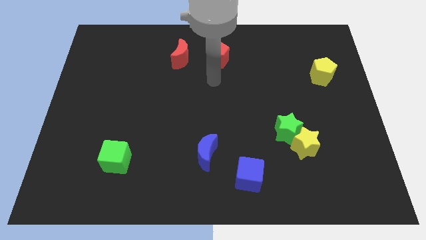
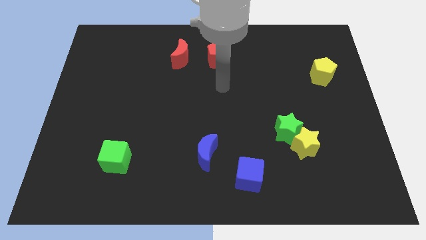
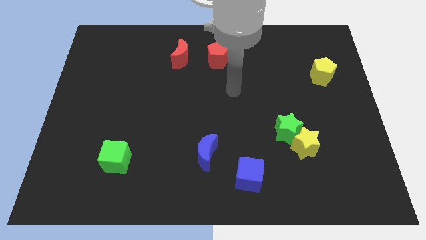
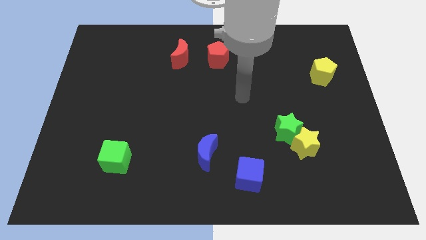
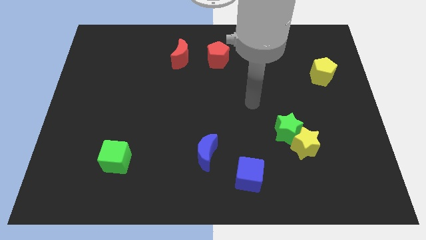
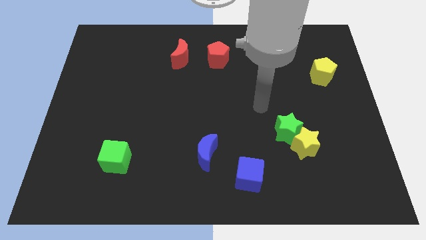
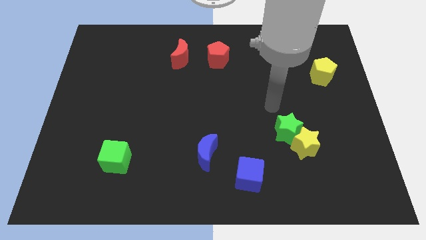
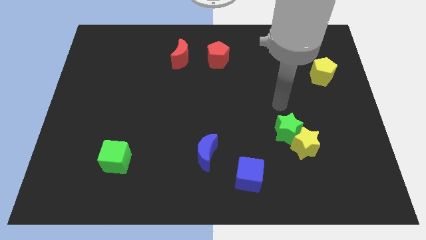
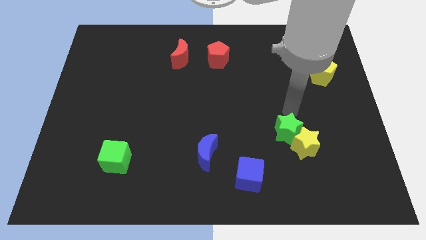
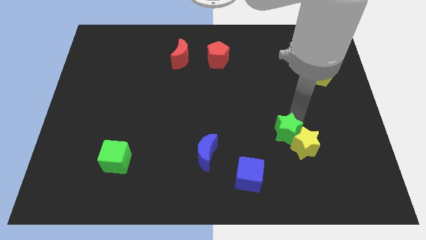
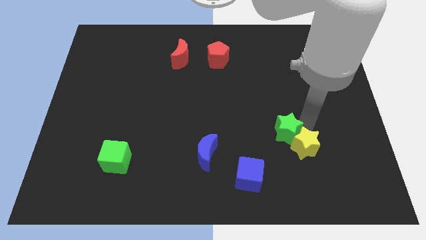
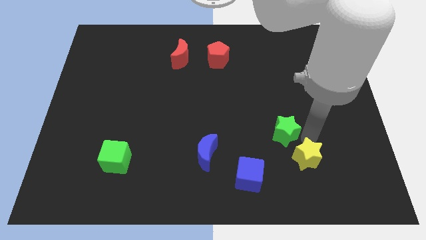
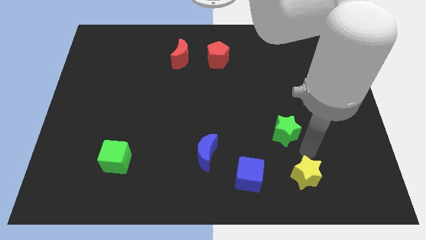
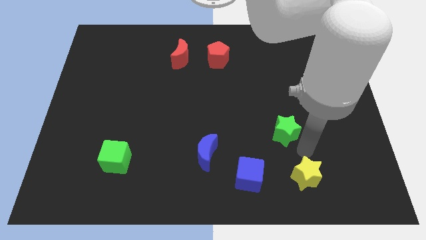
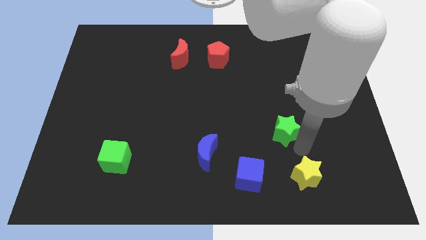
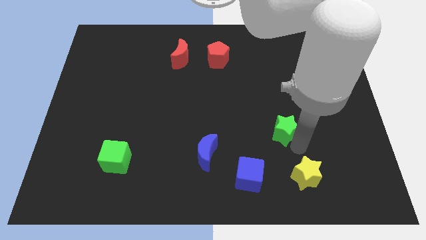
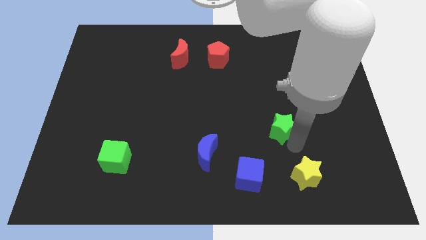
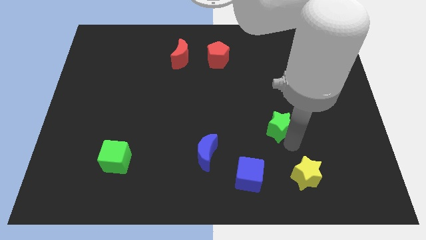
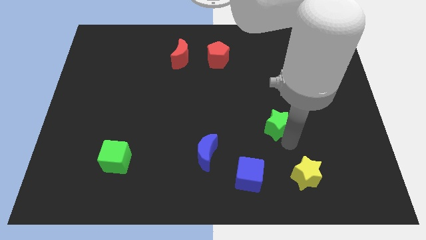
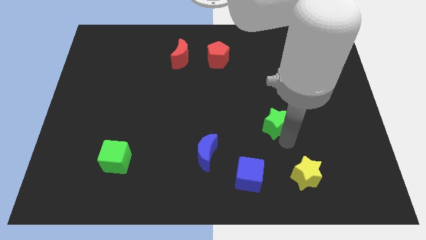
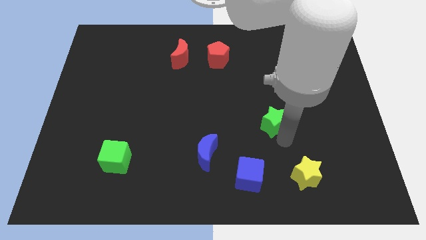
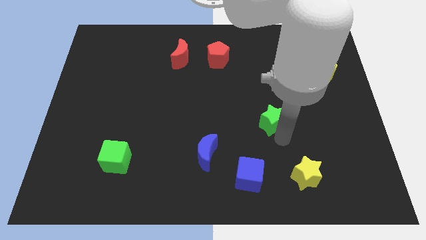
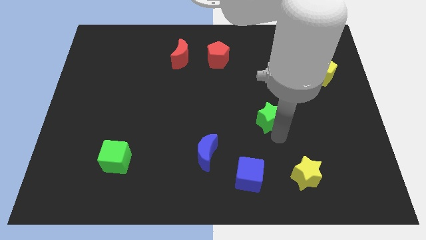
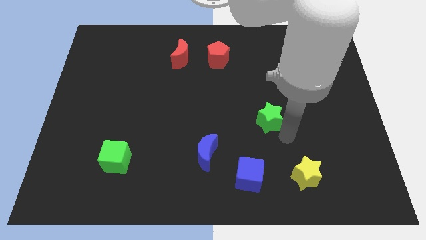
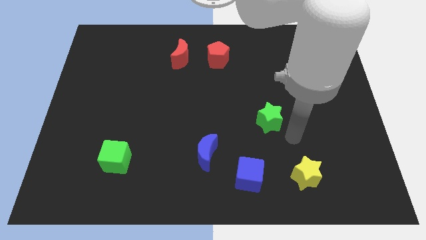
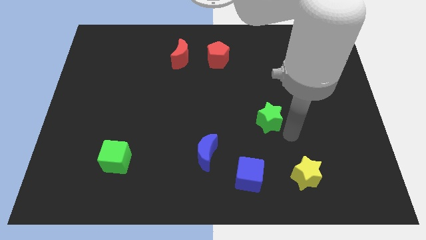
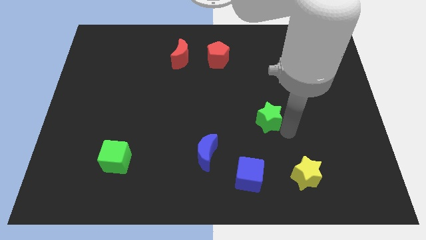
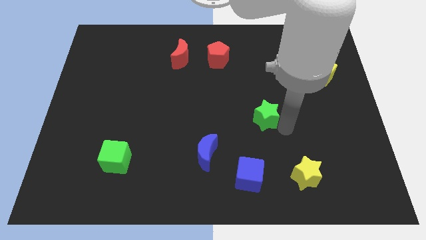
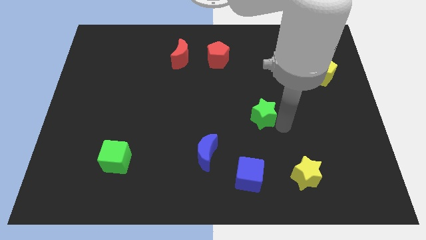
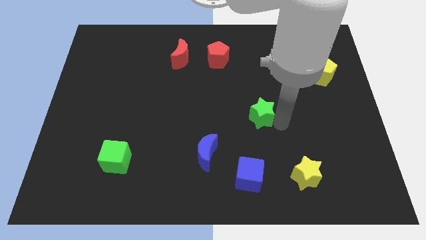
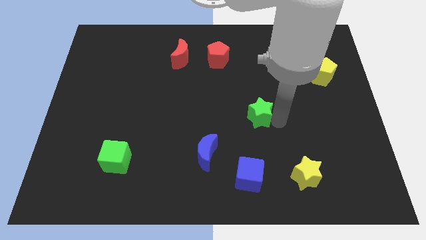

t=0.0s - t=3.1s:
slide the green star up and then to the left slightly

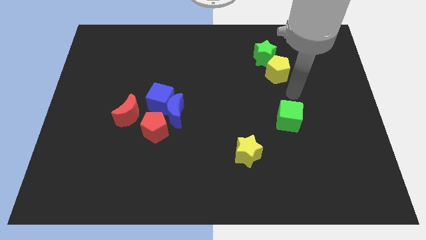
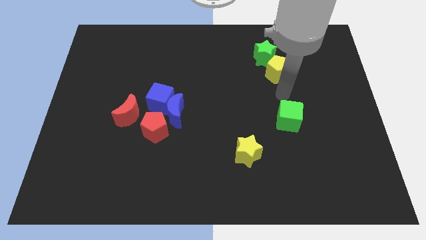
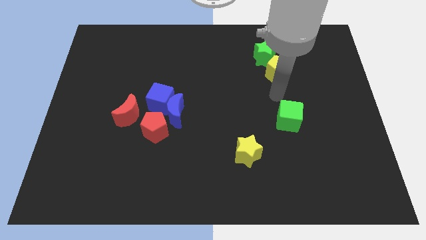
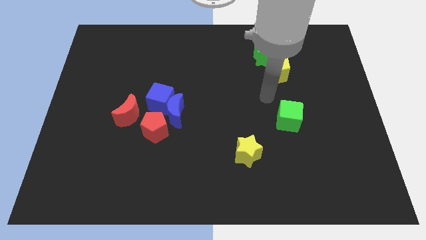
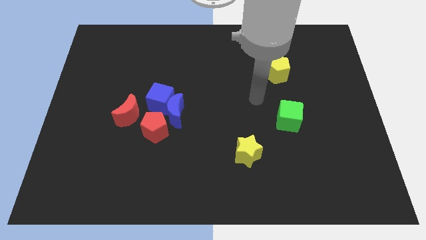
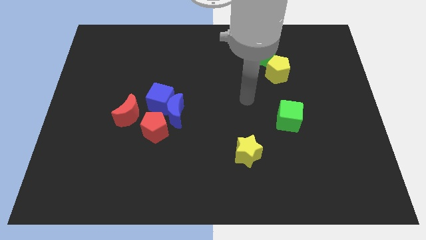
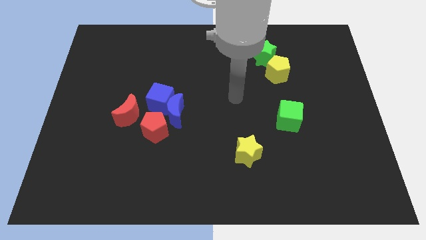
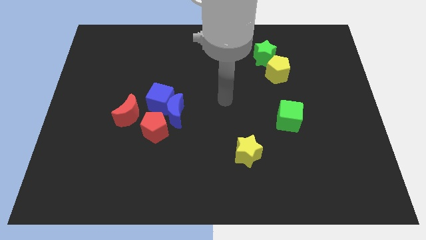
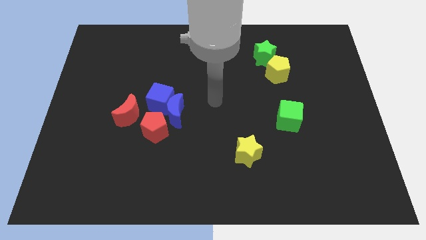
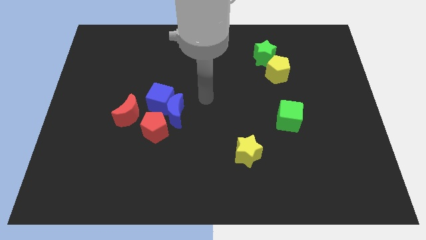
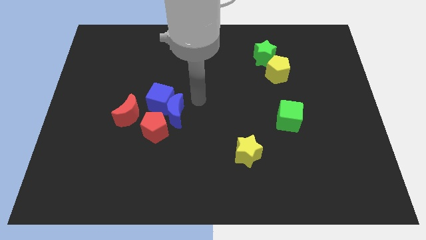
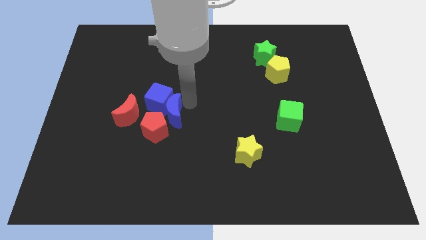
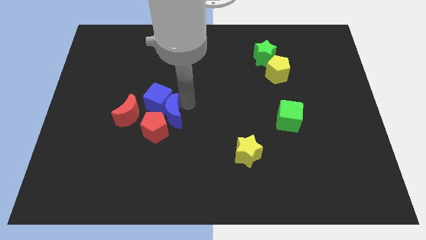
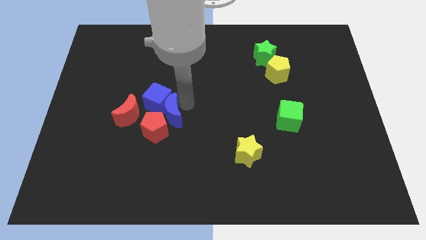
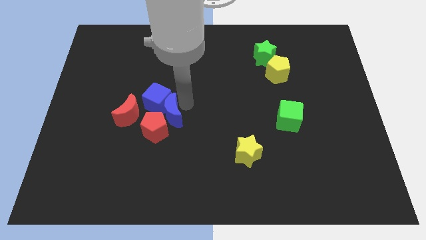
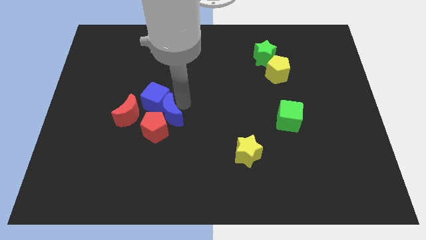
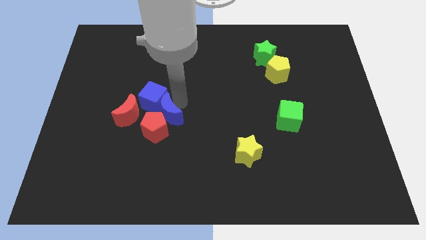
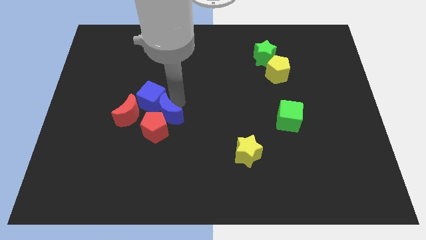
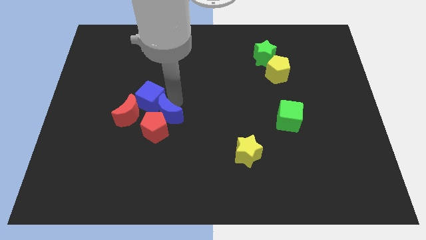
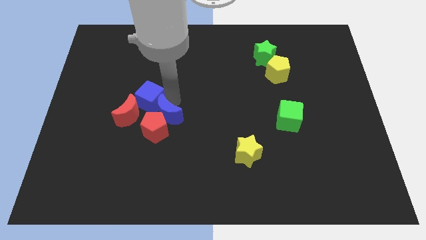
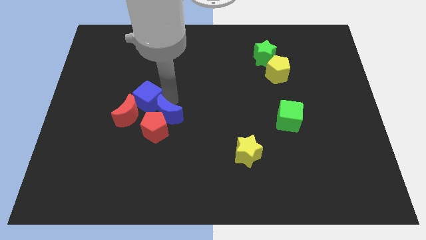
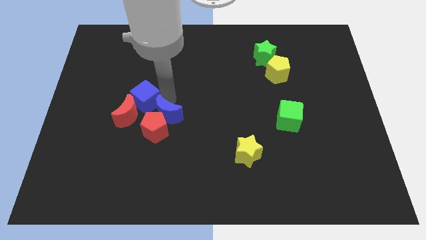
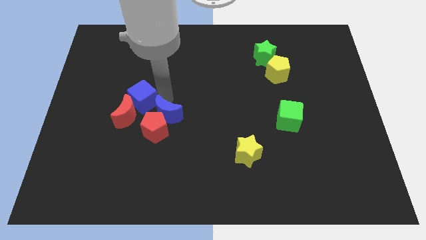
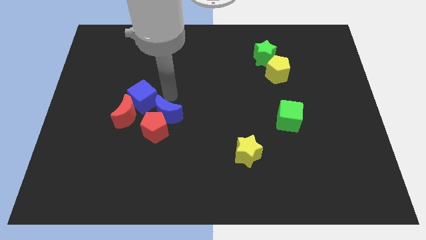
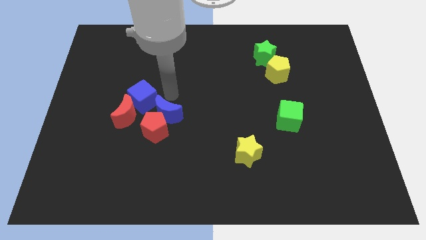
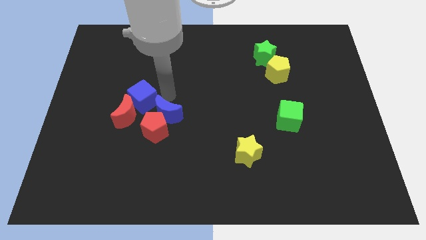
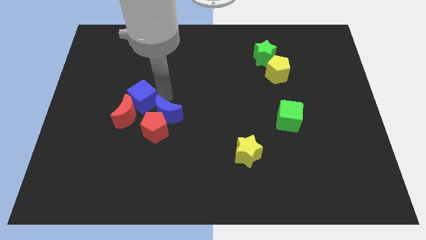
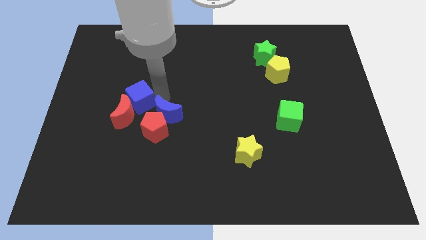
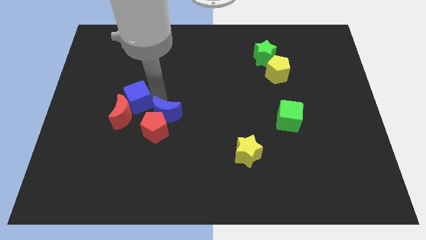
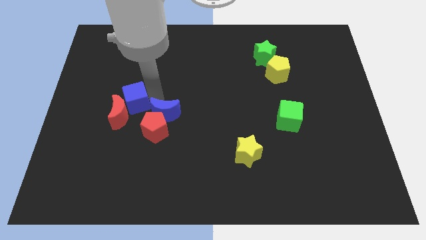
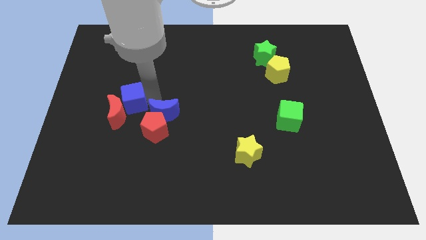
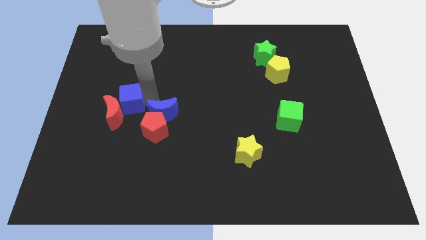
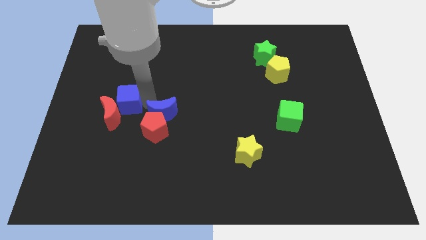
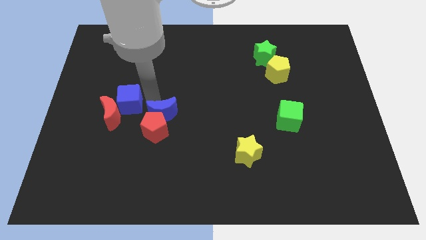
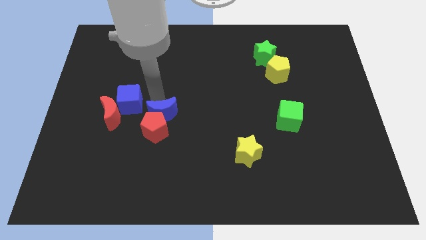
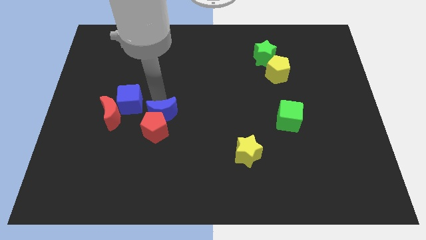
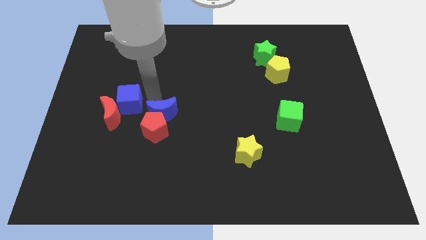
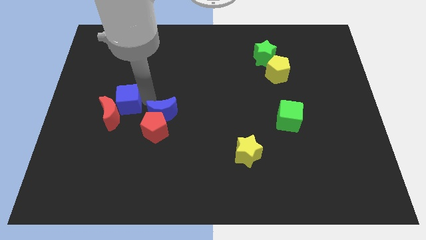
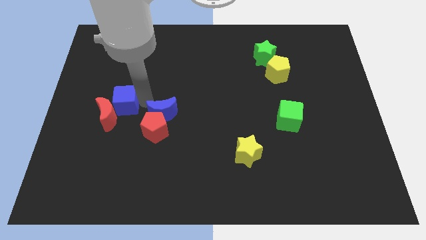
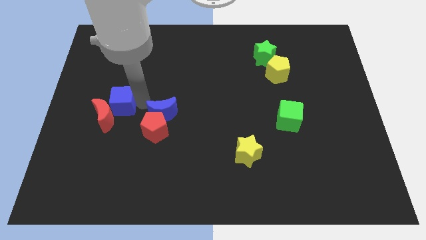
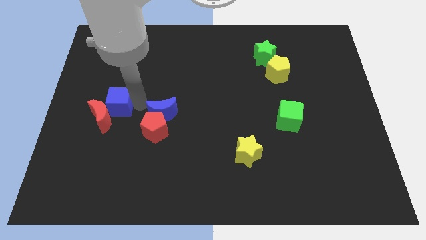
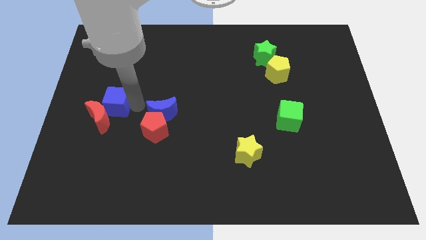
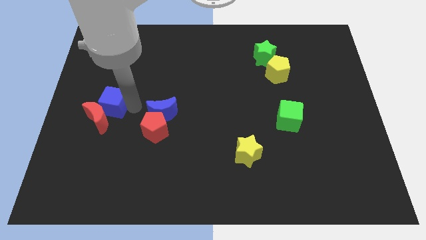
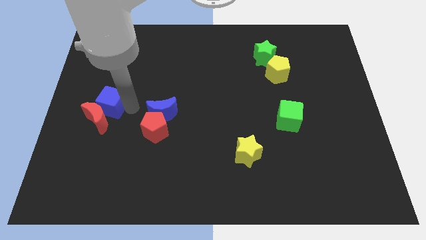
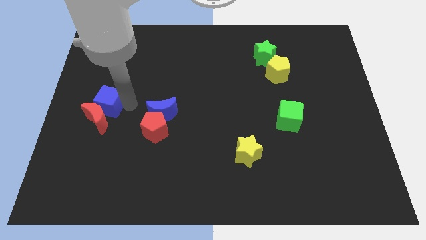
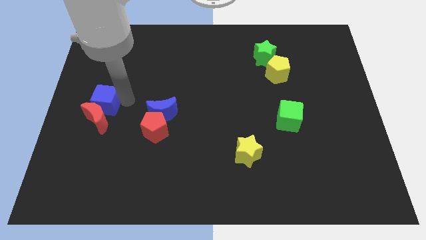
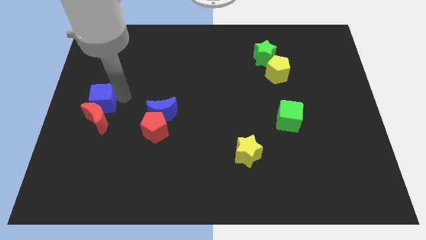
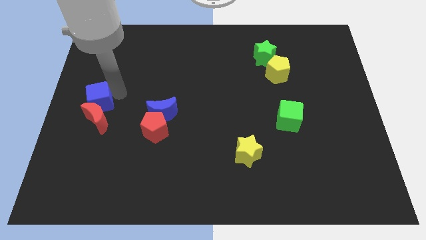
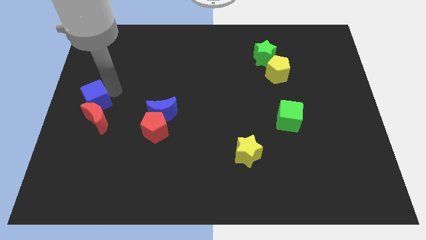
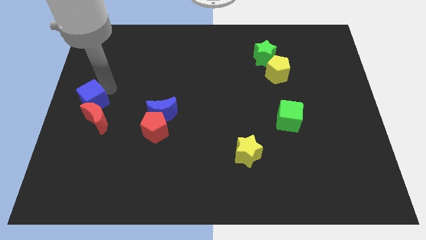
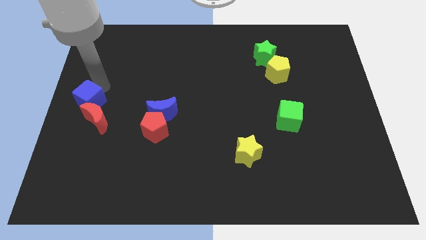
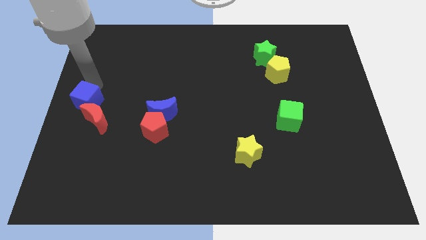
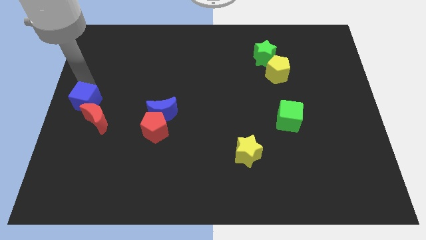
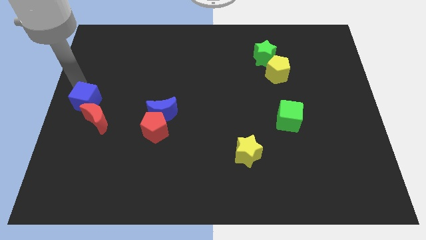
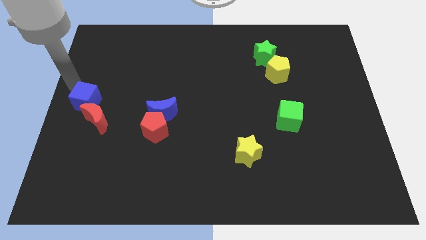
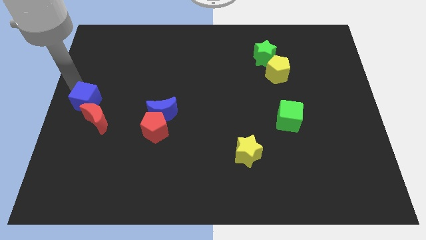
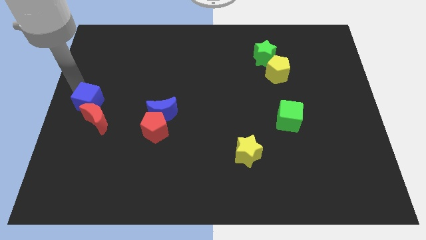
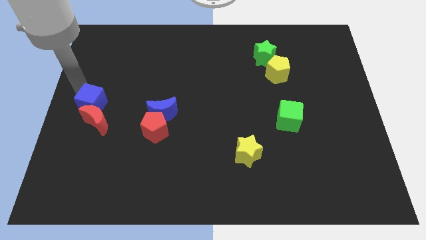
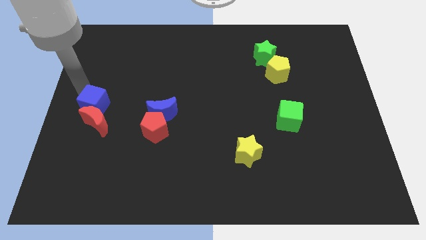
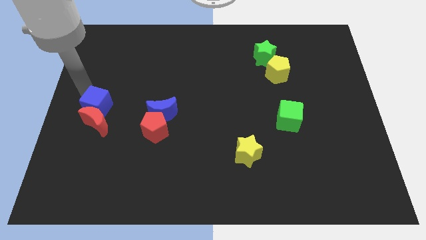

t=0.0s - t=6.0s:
move the blue cube slightly downwards and left
